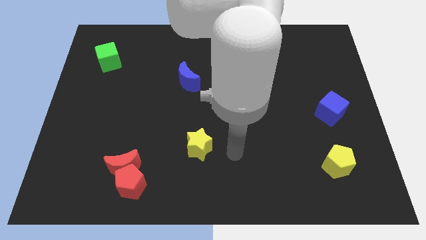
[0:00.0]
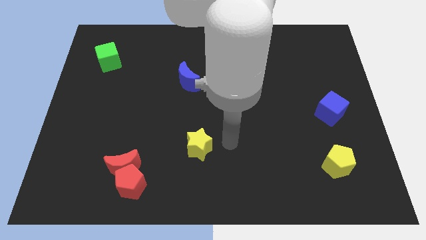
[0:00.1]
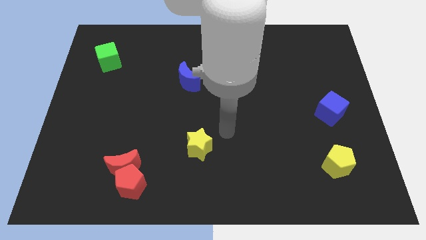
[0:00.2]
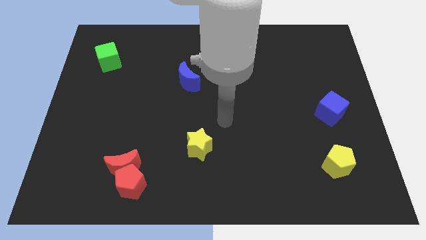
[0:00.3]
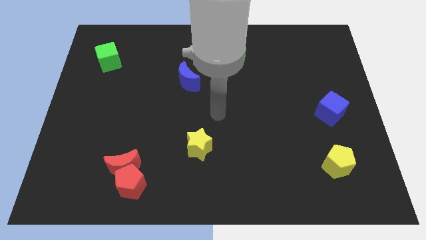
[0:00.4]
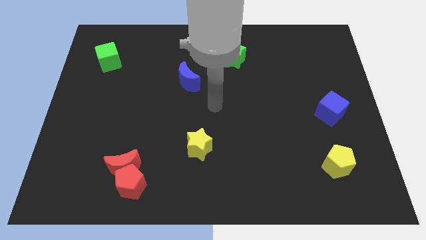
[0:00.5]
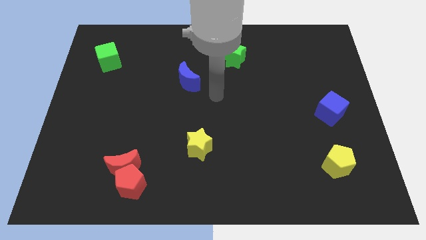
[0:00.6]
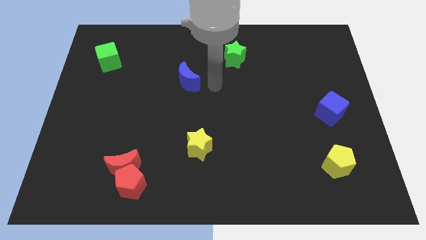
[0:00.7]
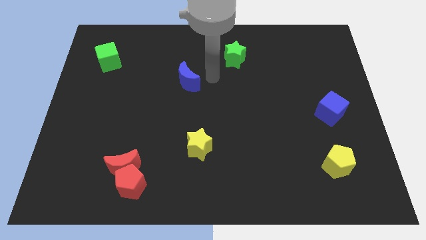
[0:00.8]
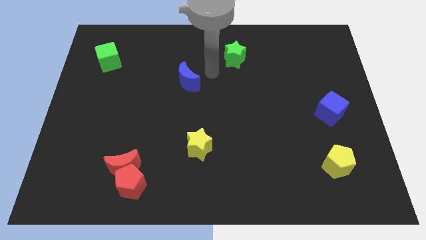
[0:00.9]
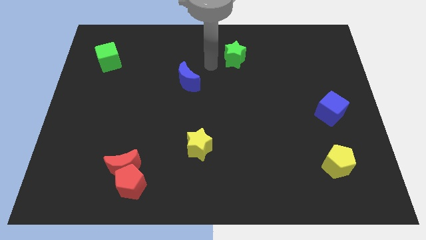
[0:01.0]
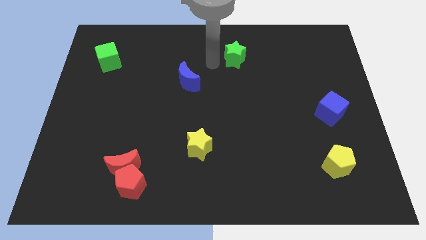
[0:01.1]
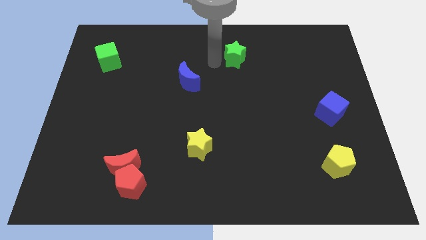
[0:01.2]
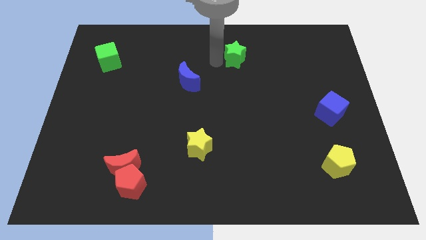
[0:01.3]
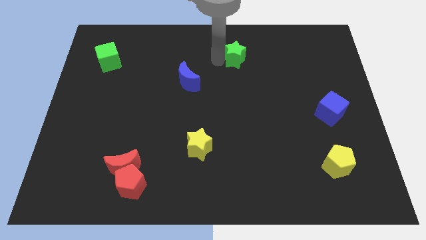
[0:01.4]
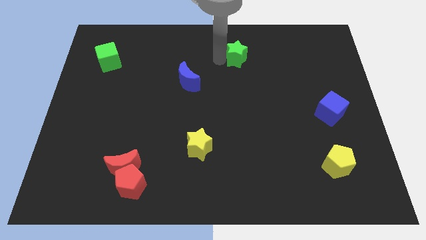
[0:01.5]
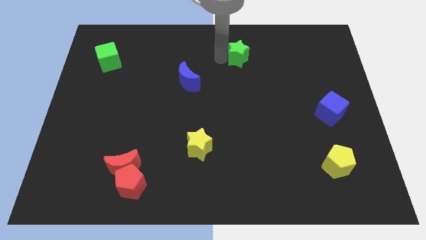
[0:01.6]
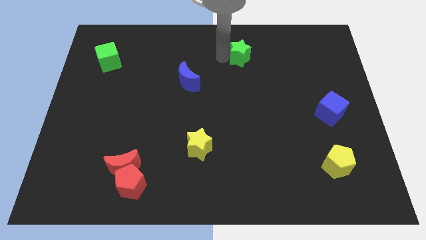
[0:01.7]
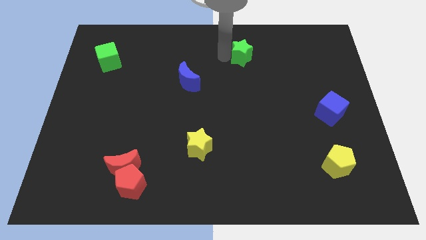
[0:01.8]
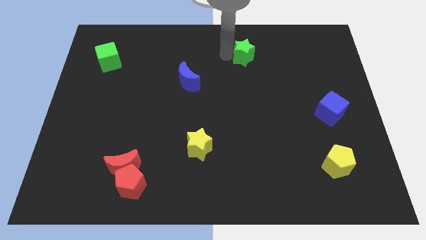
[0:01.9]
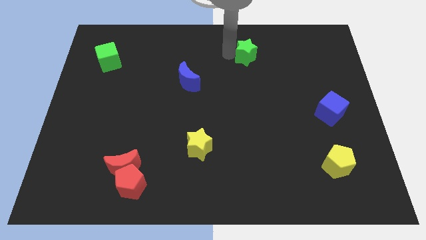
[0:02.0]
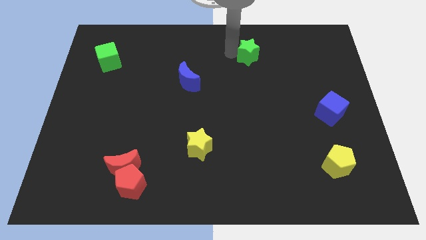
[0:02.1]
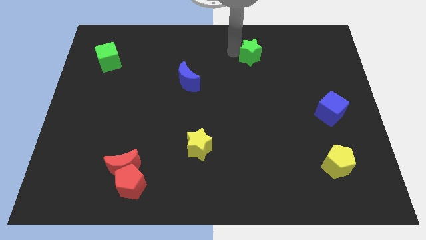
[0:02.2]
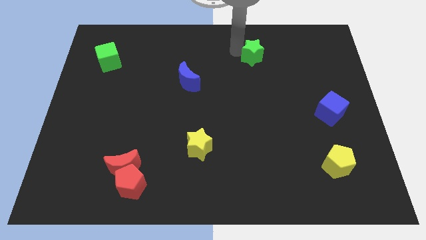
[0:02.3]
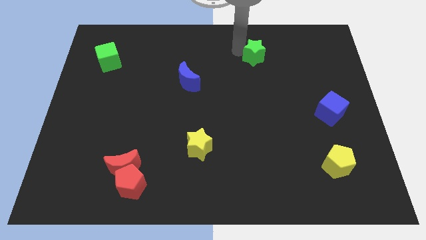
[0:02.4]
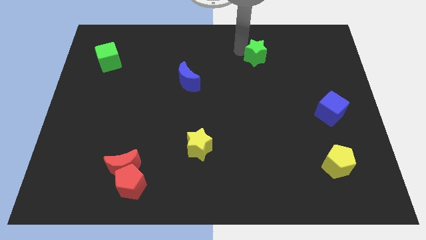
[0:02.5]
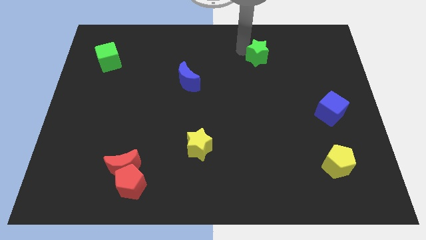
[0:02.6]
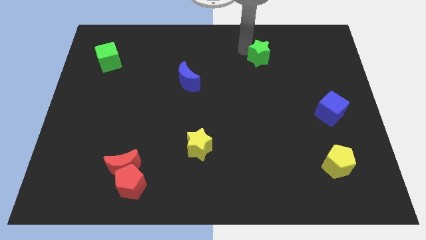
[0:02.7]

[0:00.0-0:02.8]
move the green star slightly right

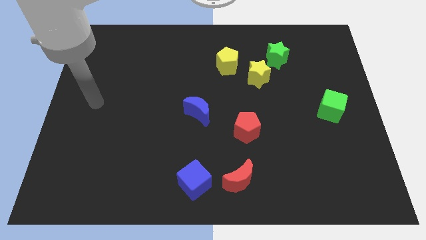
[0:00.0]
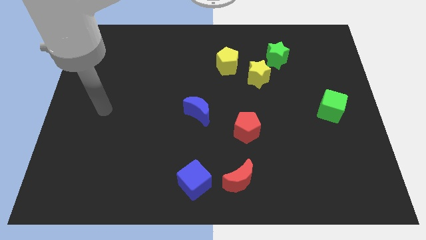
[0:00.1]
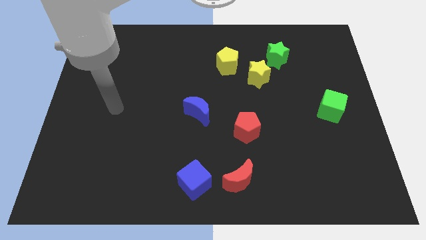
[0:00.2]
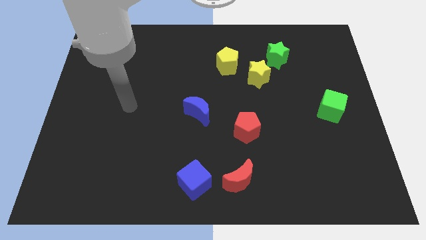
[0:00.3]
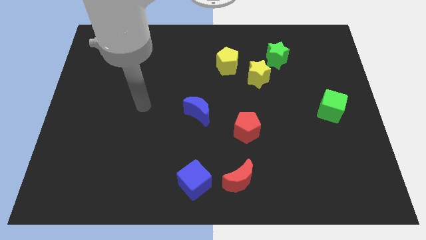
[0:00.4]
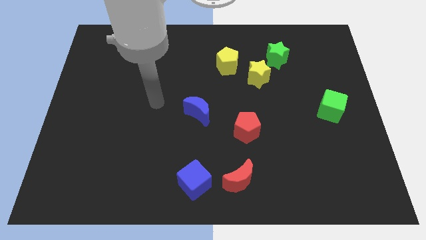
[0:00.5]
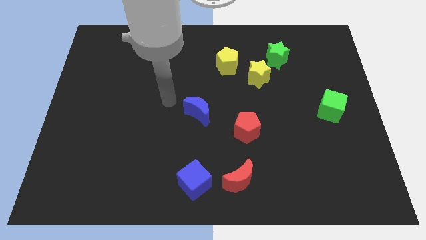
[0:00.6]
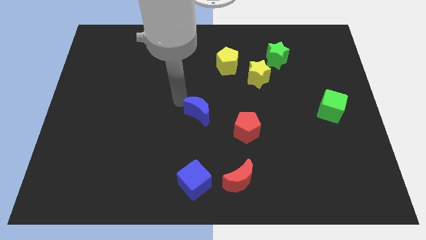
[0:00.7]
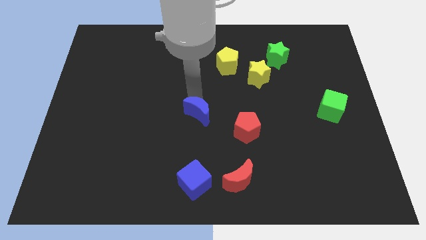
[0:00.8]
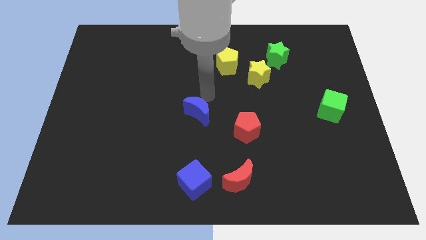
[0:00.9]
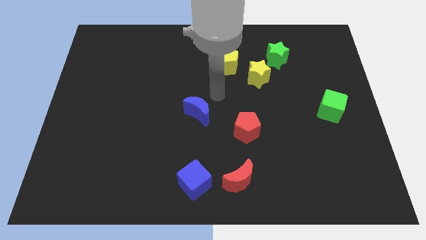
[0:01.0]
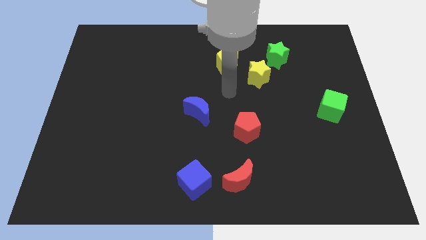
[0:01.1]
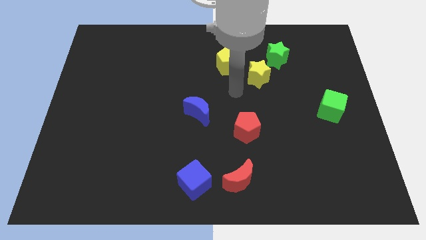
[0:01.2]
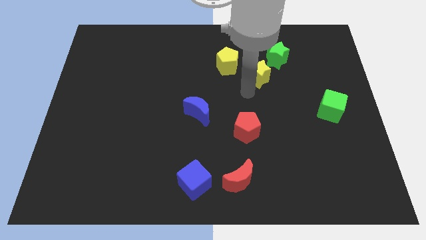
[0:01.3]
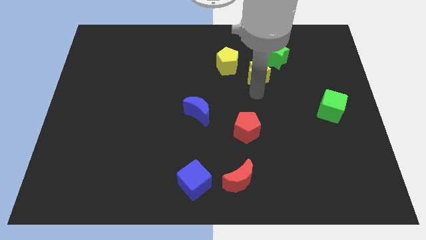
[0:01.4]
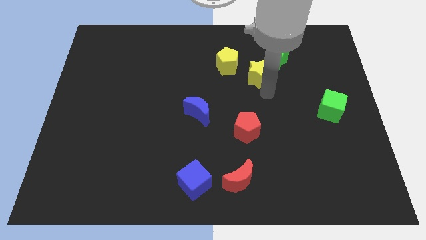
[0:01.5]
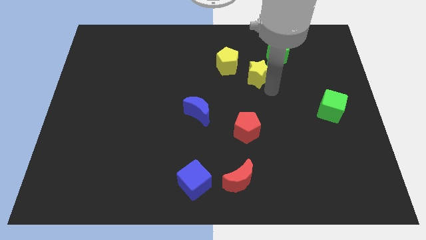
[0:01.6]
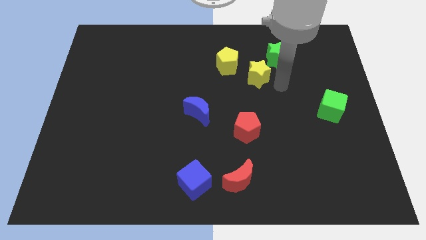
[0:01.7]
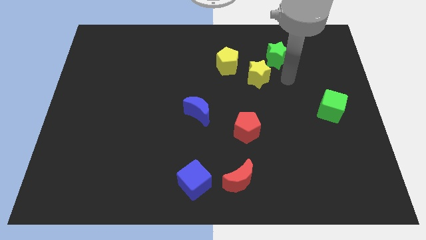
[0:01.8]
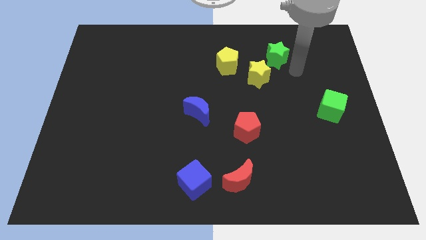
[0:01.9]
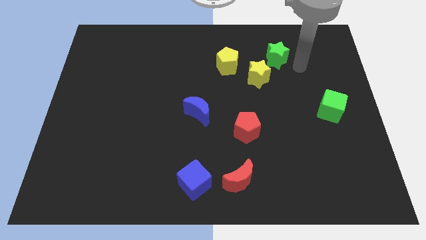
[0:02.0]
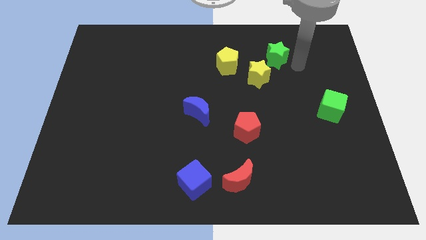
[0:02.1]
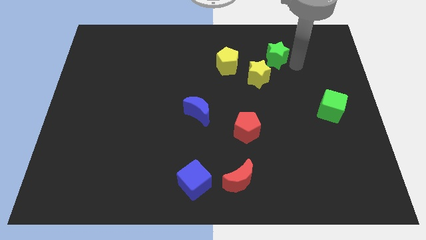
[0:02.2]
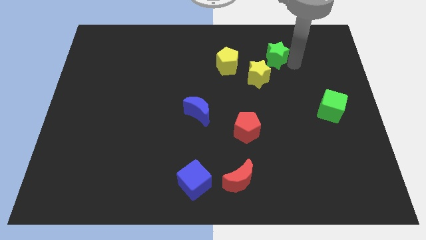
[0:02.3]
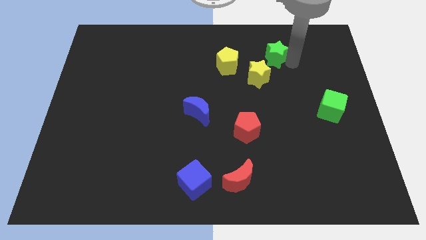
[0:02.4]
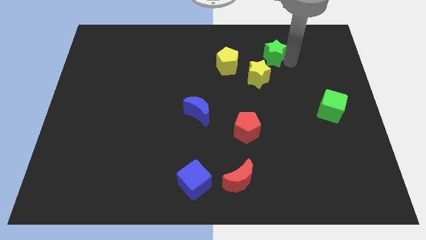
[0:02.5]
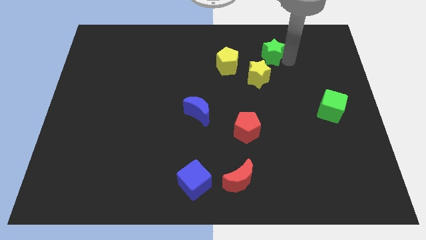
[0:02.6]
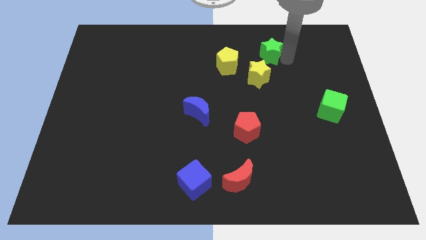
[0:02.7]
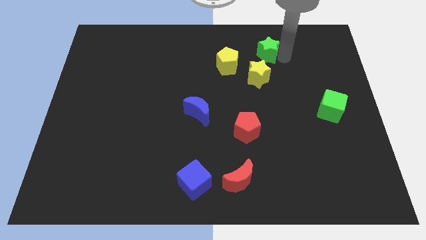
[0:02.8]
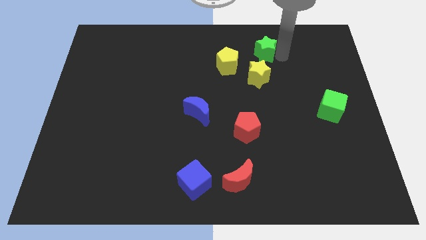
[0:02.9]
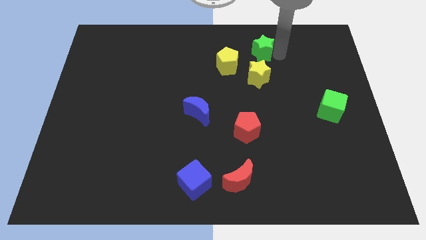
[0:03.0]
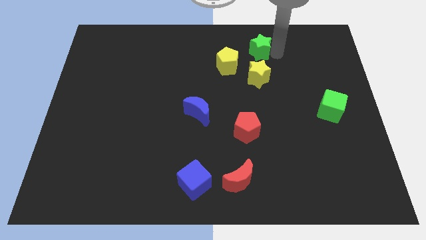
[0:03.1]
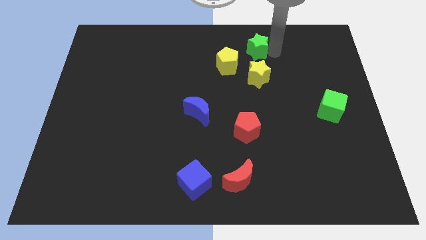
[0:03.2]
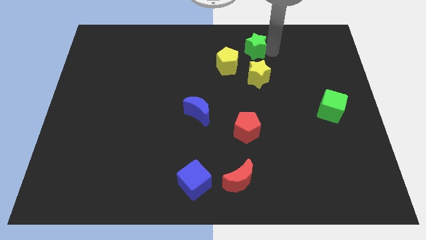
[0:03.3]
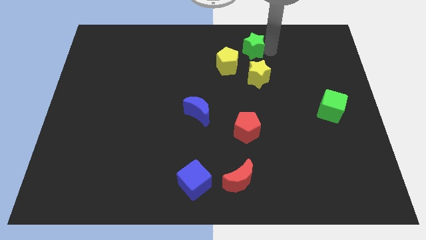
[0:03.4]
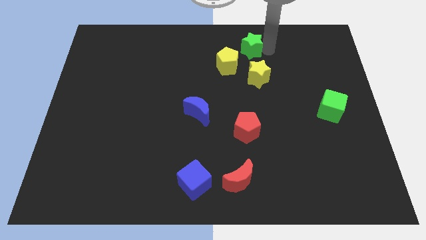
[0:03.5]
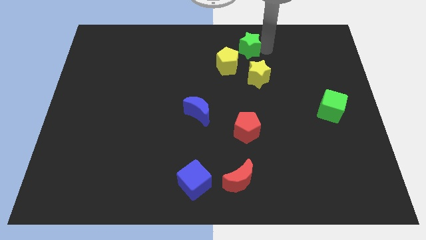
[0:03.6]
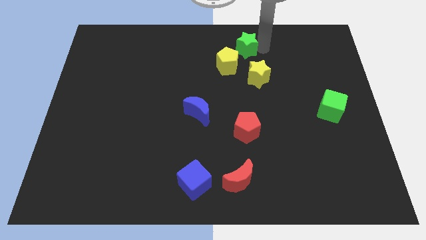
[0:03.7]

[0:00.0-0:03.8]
slightly move the green star left

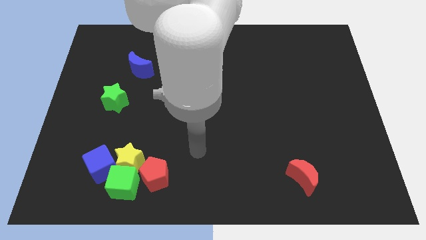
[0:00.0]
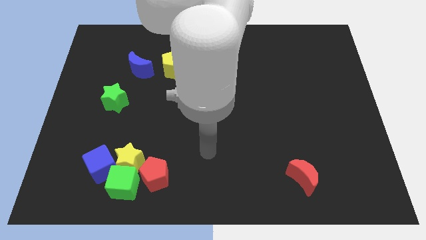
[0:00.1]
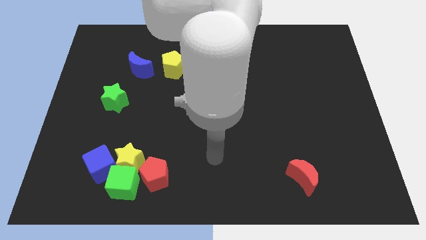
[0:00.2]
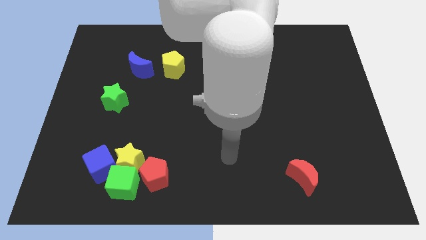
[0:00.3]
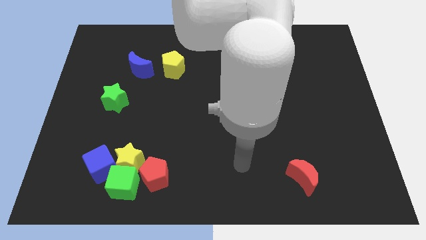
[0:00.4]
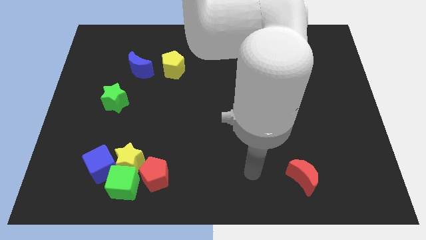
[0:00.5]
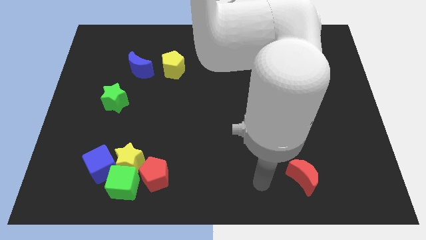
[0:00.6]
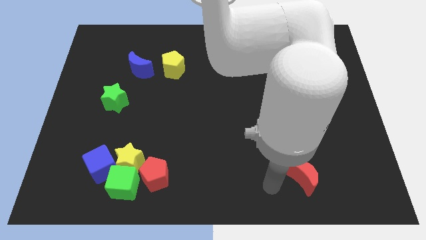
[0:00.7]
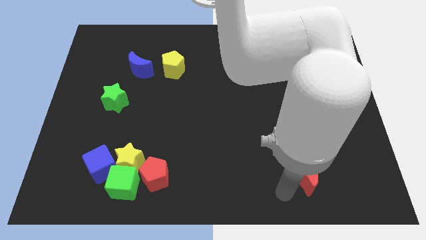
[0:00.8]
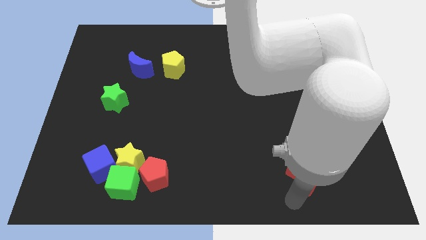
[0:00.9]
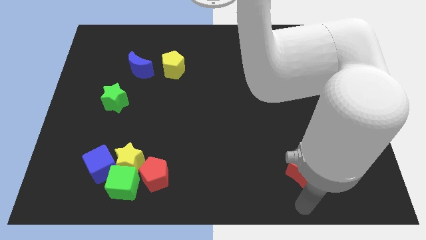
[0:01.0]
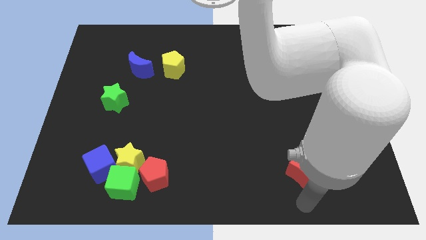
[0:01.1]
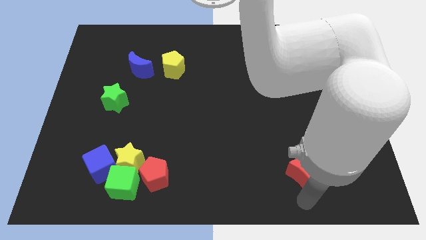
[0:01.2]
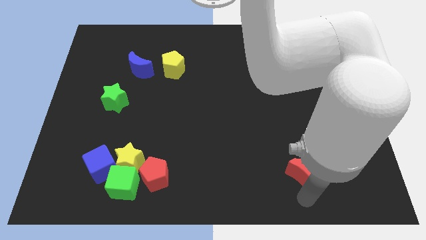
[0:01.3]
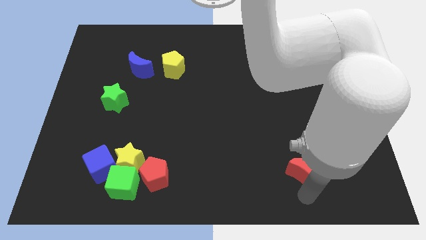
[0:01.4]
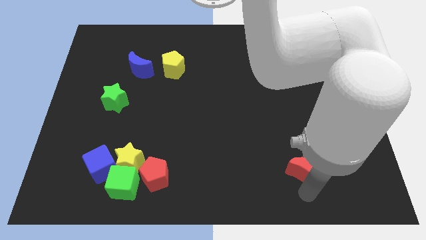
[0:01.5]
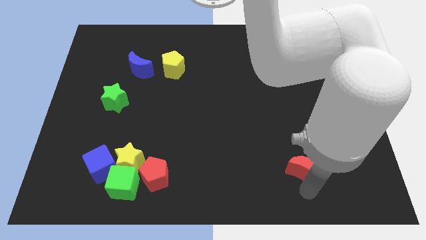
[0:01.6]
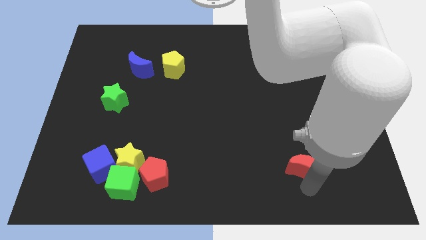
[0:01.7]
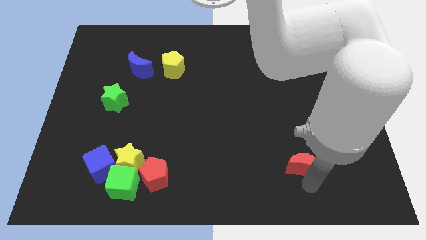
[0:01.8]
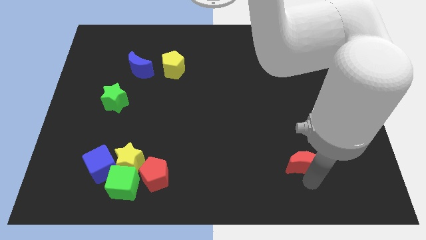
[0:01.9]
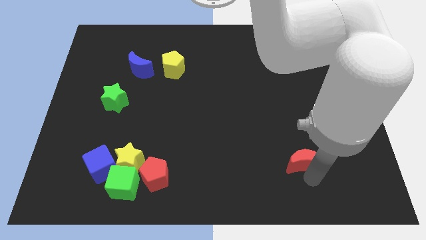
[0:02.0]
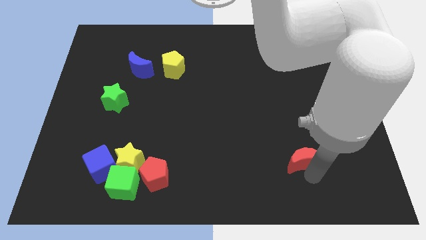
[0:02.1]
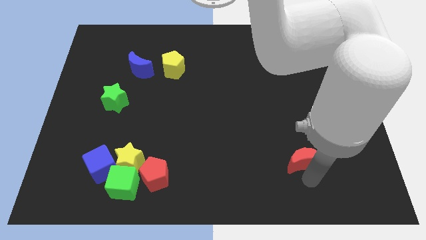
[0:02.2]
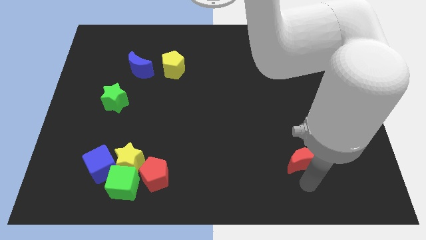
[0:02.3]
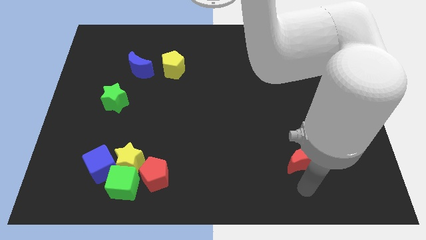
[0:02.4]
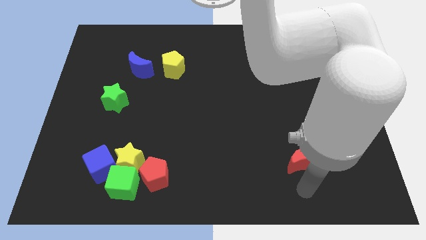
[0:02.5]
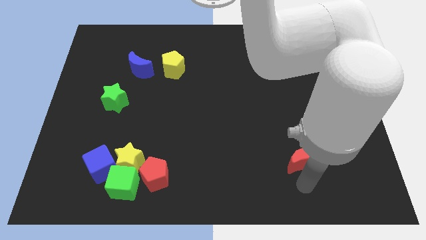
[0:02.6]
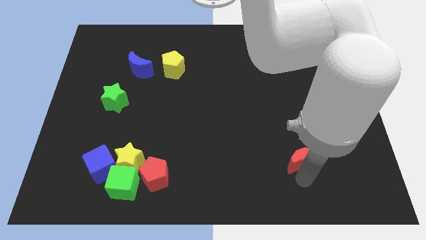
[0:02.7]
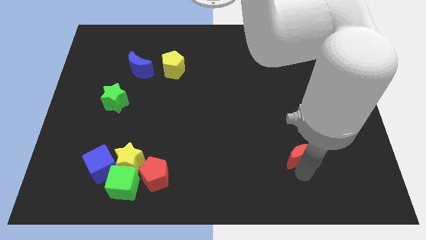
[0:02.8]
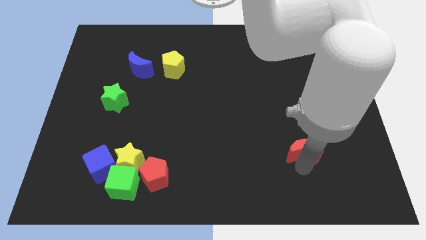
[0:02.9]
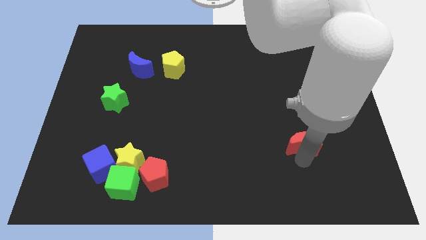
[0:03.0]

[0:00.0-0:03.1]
slightly slide the red moon upwards
